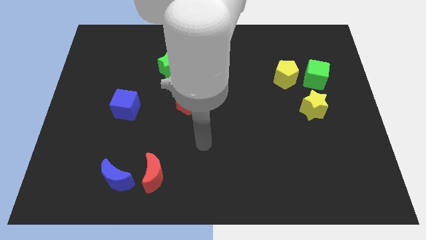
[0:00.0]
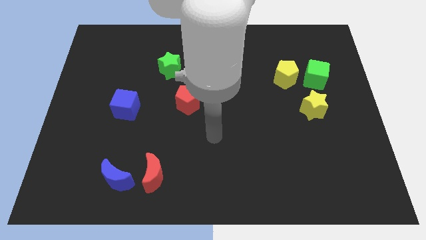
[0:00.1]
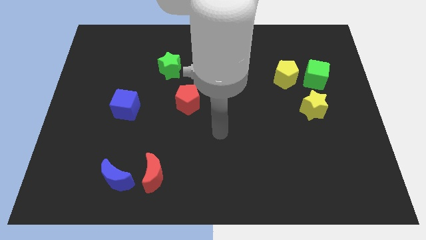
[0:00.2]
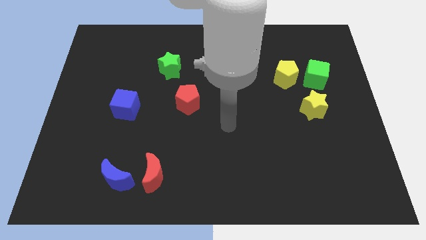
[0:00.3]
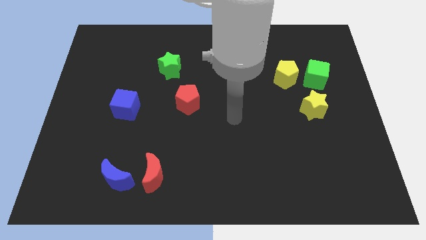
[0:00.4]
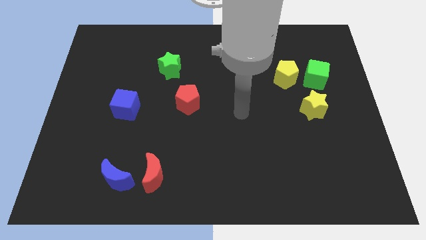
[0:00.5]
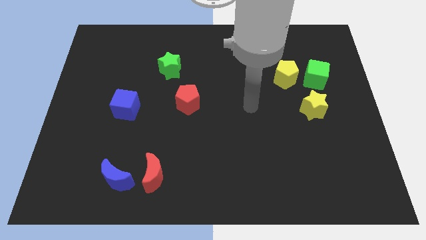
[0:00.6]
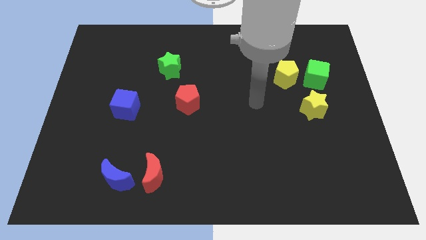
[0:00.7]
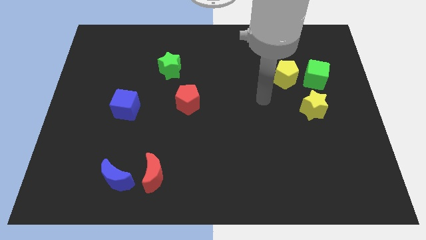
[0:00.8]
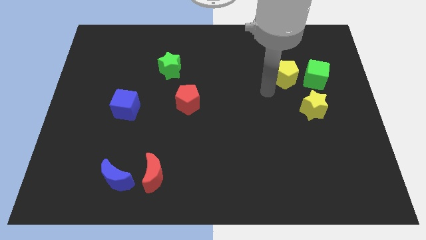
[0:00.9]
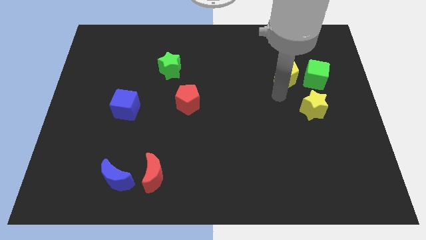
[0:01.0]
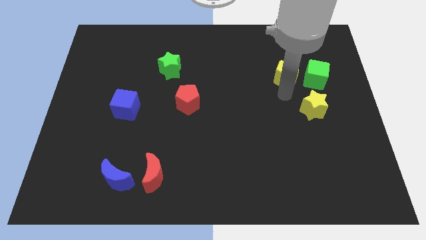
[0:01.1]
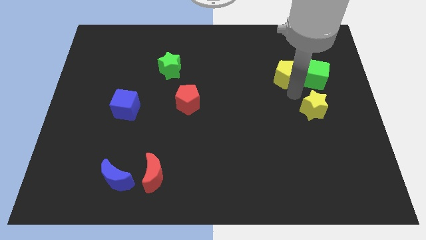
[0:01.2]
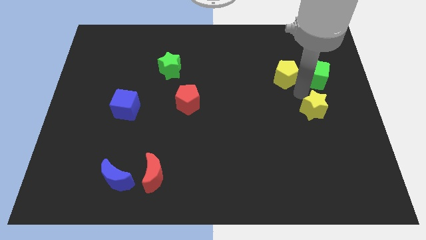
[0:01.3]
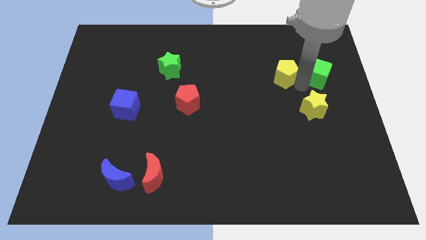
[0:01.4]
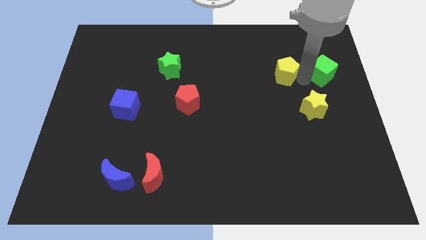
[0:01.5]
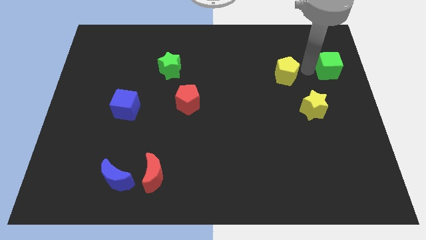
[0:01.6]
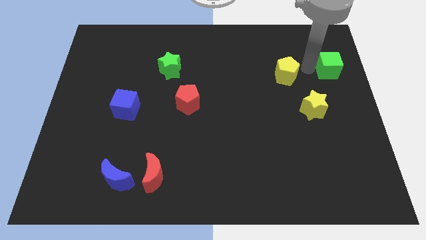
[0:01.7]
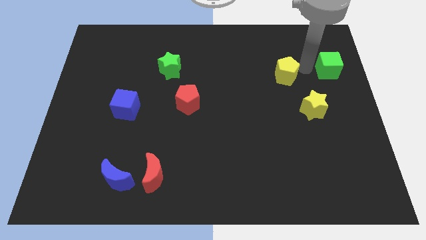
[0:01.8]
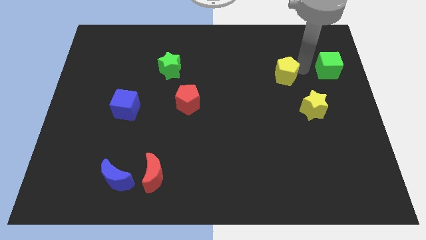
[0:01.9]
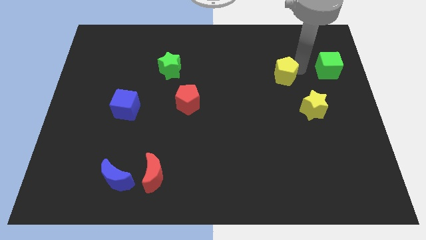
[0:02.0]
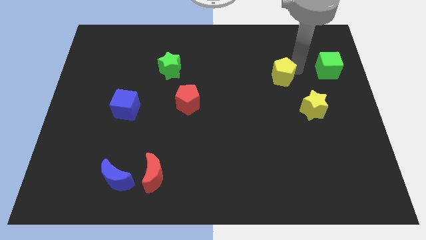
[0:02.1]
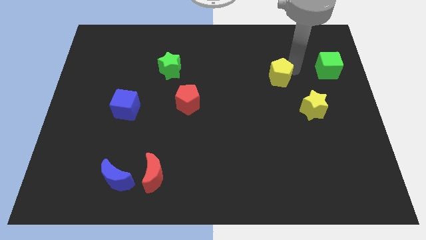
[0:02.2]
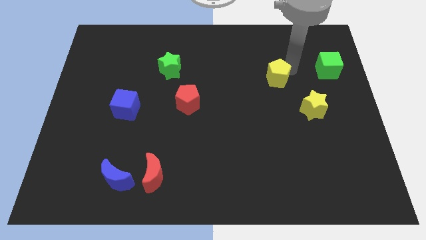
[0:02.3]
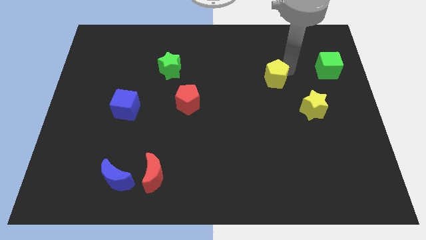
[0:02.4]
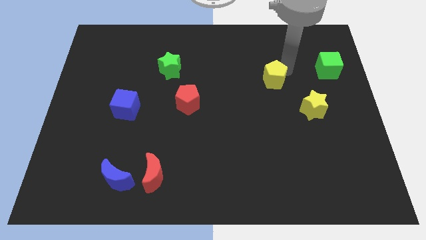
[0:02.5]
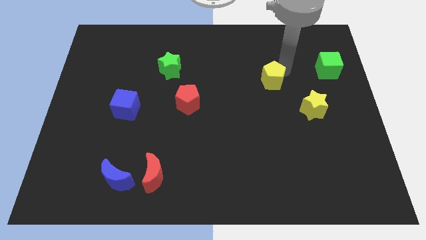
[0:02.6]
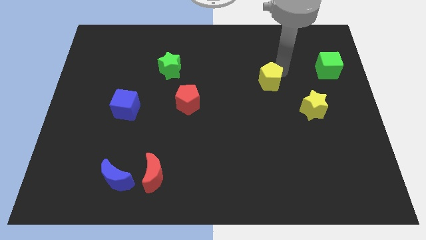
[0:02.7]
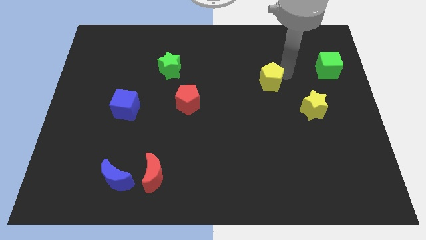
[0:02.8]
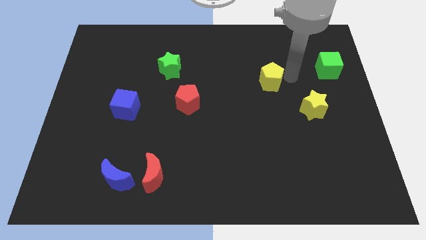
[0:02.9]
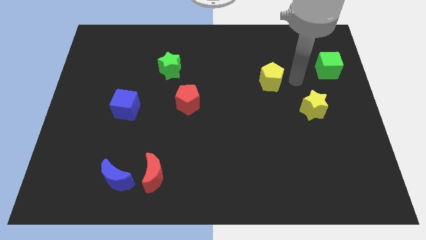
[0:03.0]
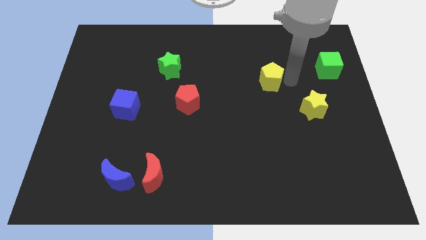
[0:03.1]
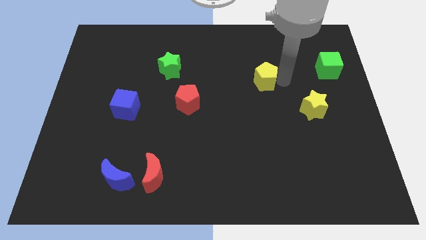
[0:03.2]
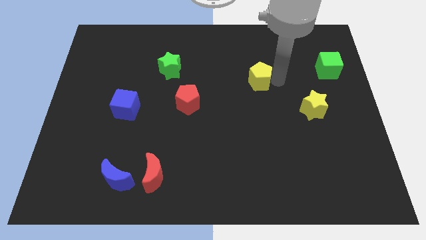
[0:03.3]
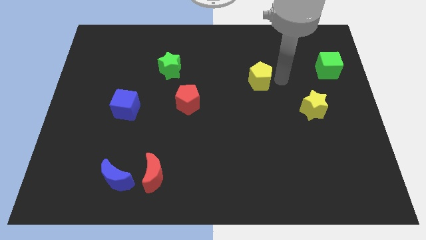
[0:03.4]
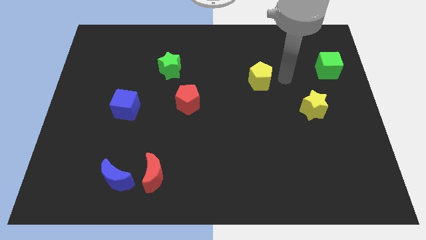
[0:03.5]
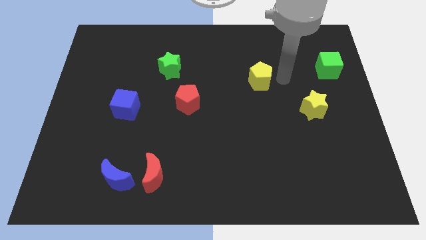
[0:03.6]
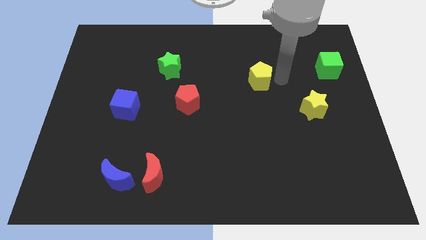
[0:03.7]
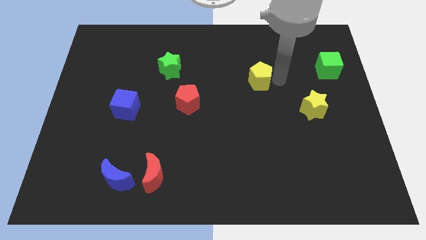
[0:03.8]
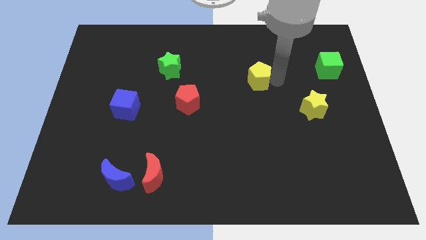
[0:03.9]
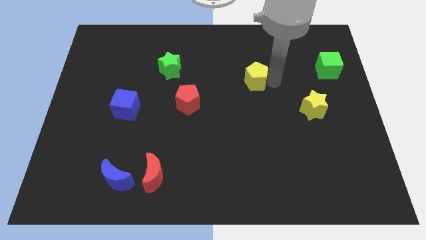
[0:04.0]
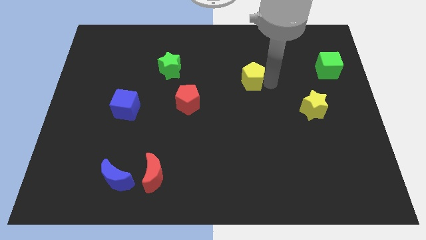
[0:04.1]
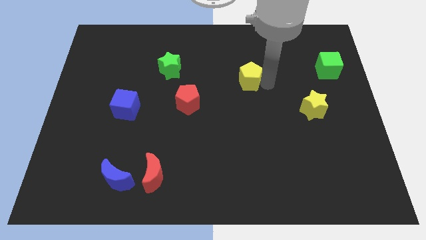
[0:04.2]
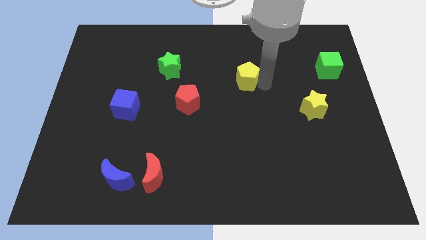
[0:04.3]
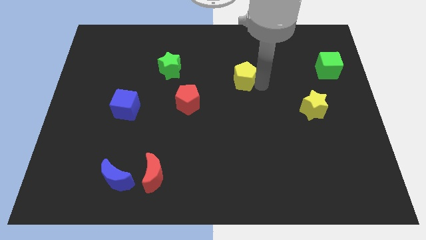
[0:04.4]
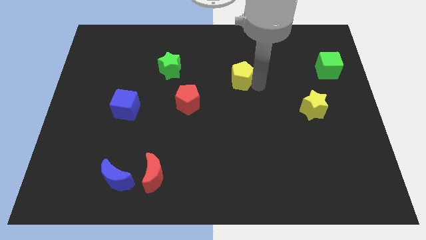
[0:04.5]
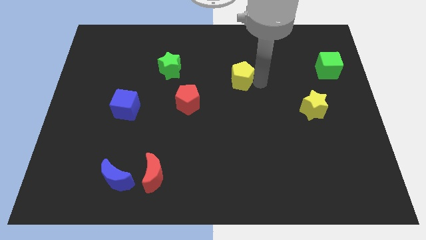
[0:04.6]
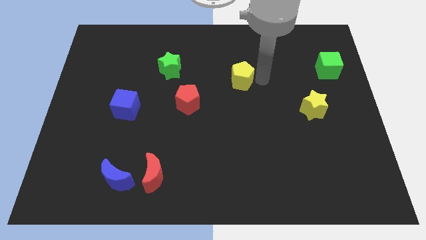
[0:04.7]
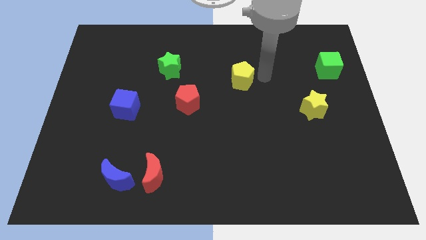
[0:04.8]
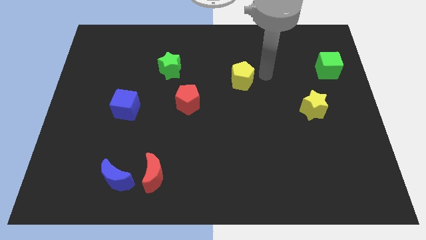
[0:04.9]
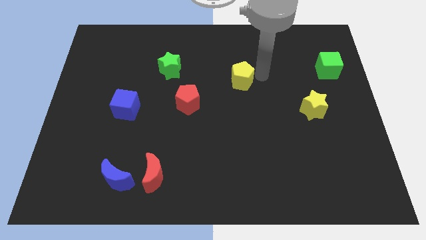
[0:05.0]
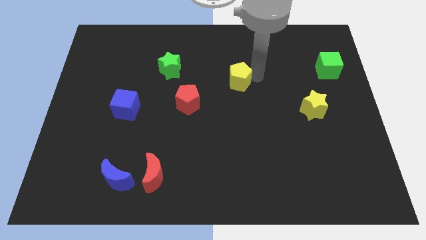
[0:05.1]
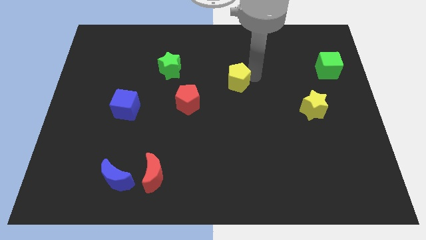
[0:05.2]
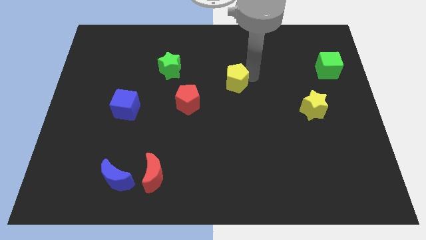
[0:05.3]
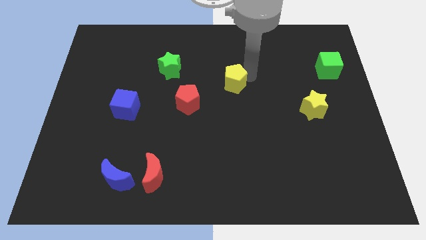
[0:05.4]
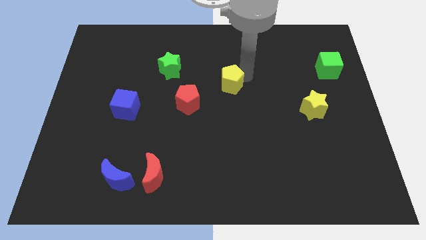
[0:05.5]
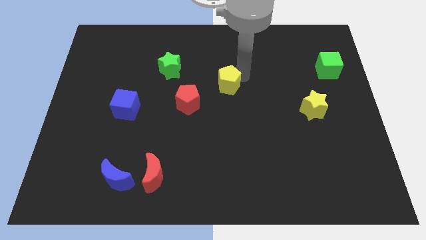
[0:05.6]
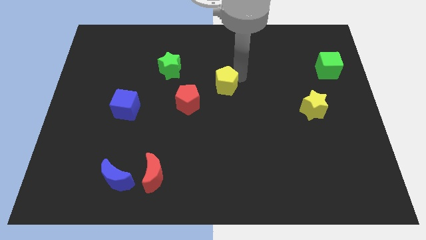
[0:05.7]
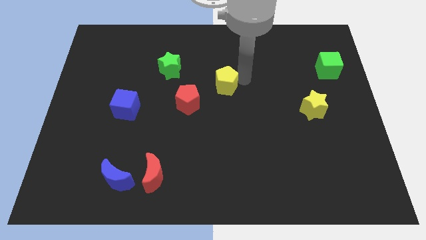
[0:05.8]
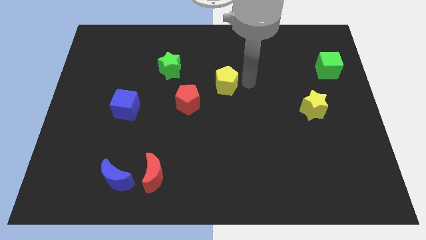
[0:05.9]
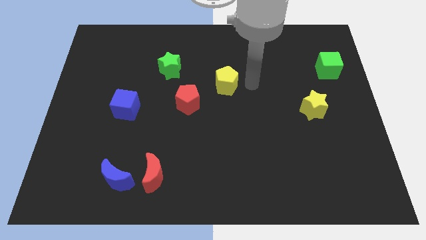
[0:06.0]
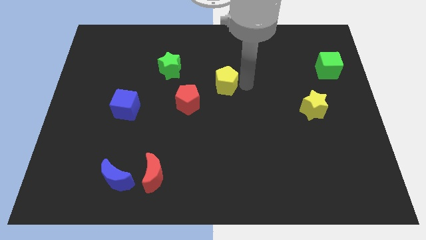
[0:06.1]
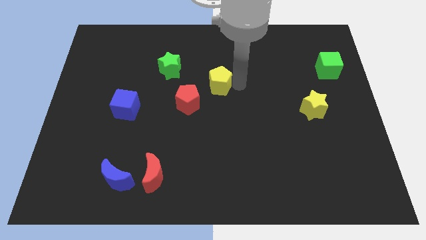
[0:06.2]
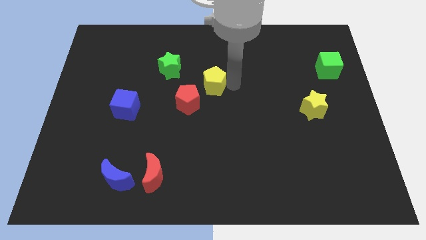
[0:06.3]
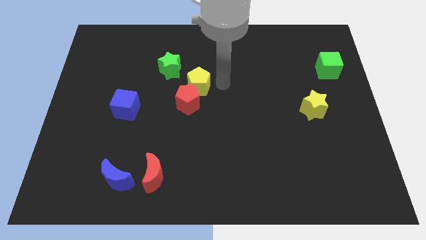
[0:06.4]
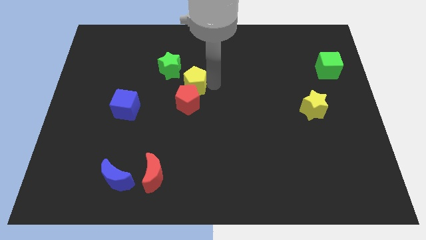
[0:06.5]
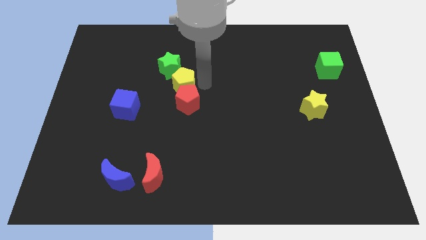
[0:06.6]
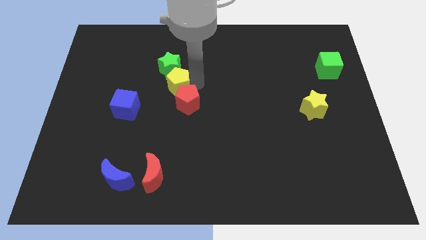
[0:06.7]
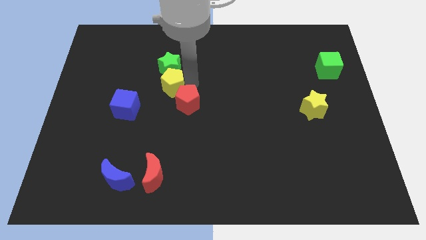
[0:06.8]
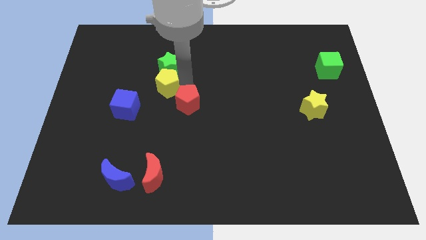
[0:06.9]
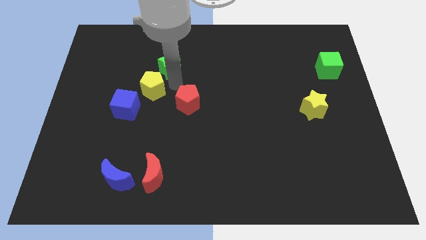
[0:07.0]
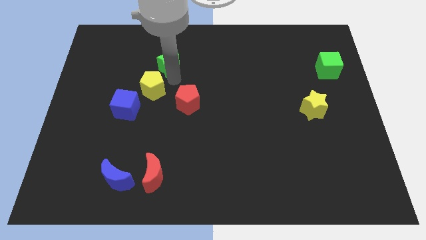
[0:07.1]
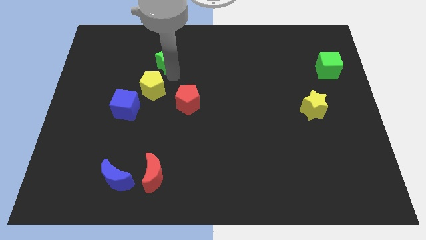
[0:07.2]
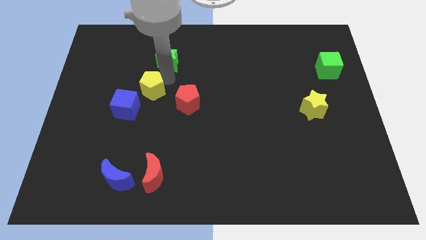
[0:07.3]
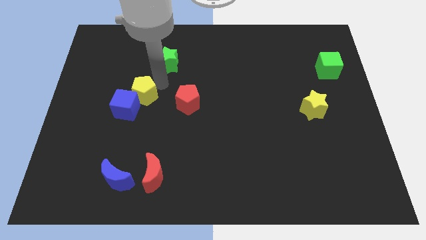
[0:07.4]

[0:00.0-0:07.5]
put the yellow pentagon to the blue cube
